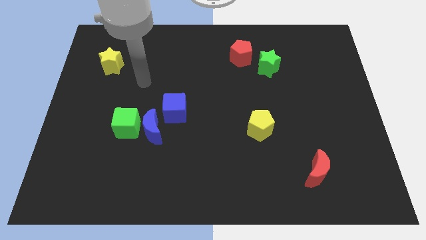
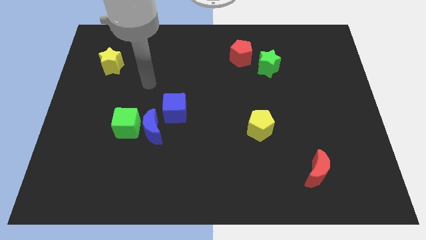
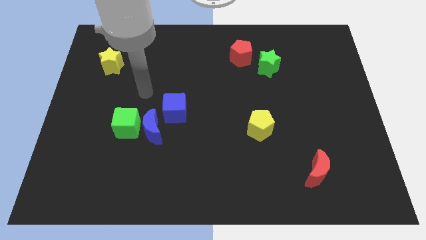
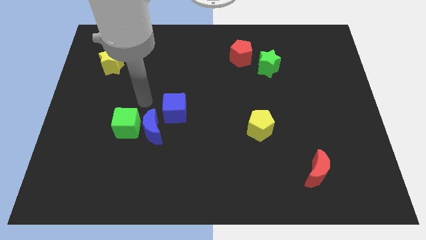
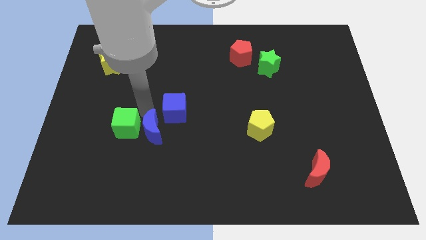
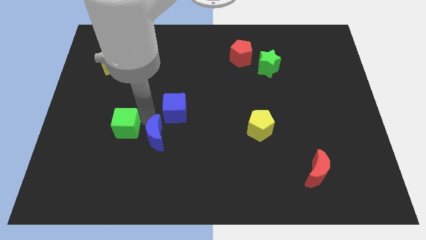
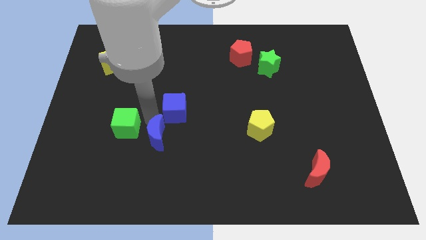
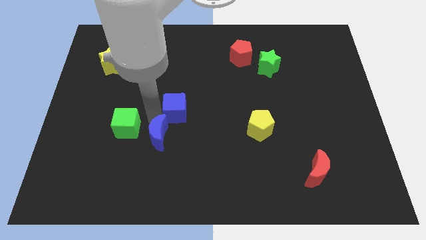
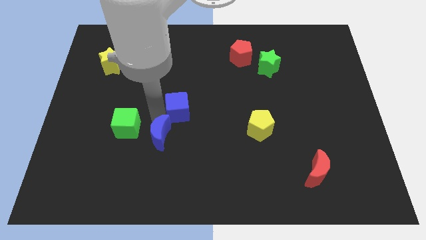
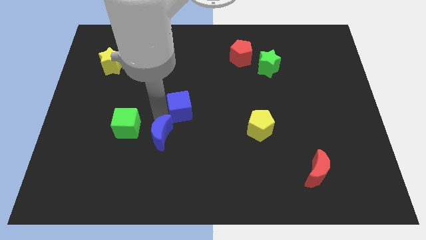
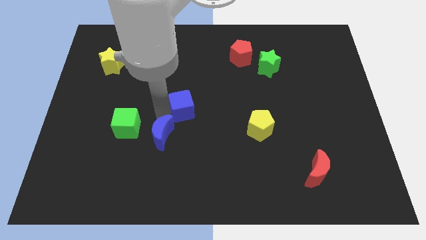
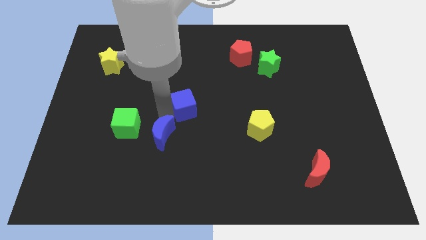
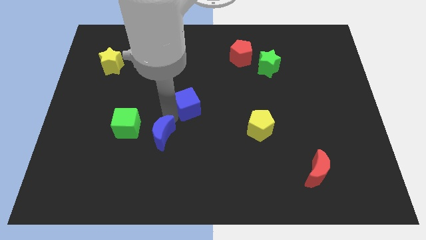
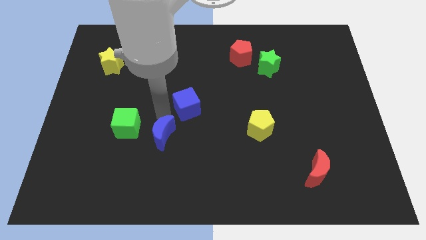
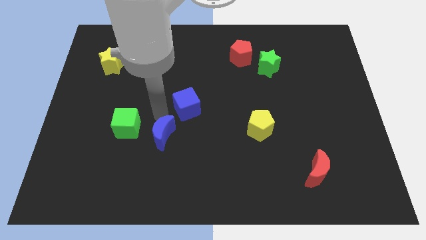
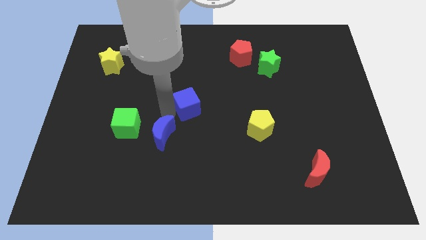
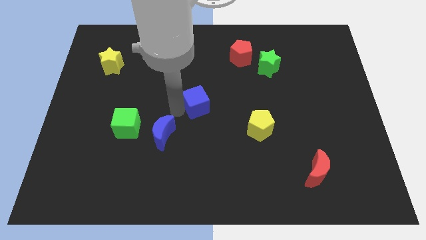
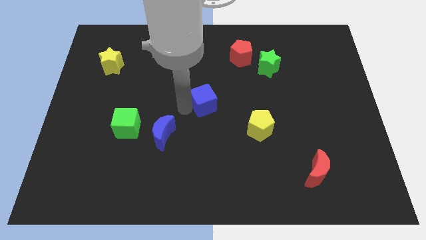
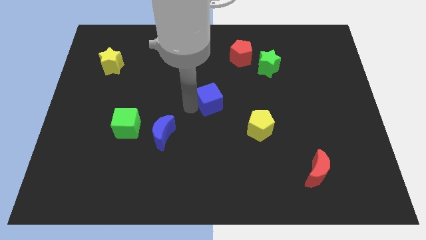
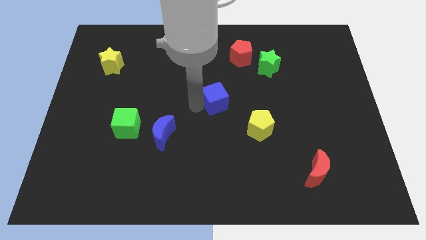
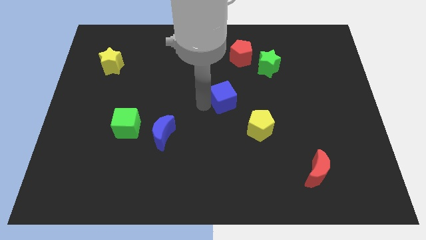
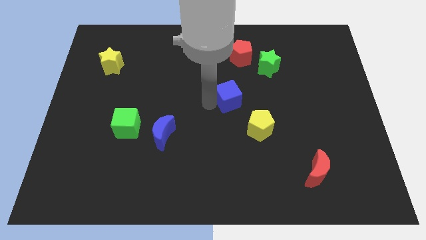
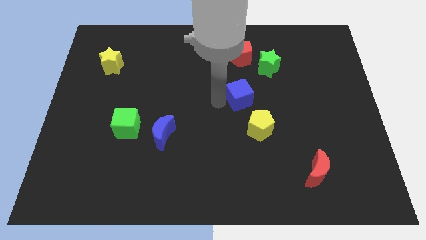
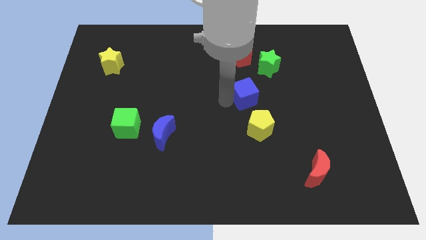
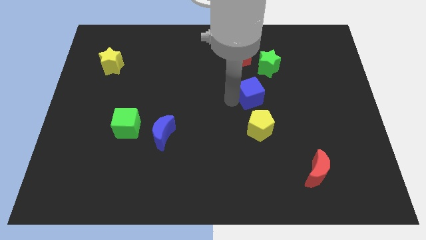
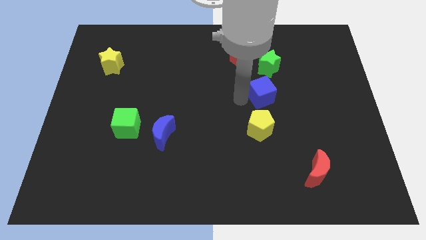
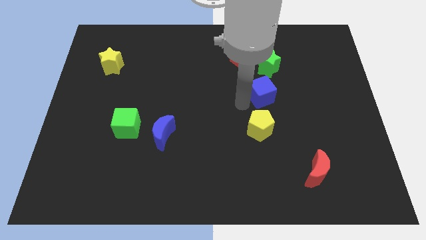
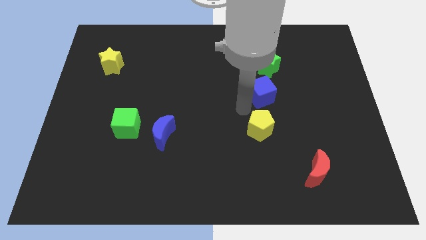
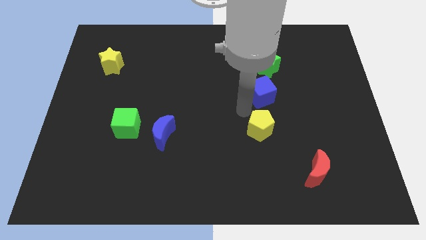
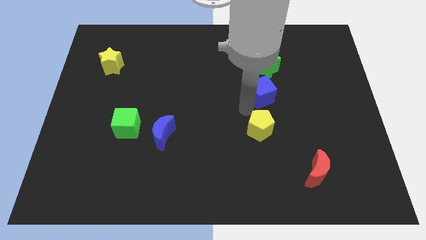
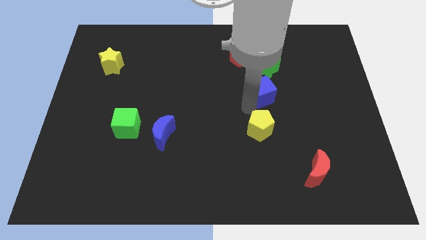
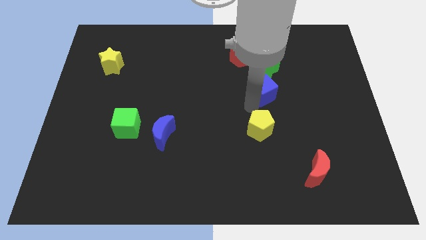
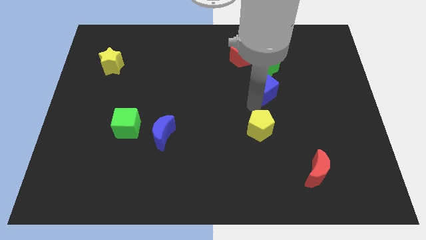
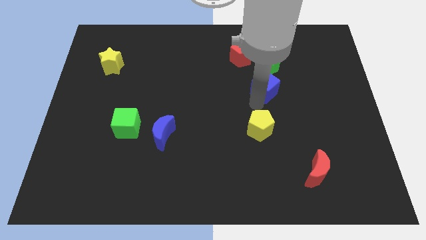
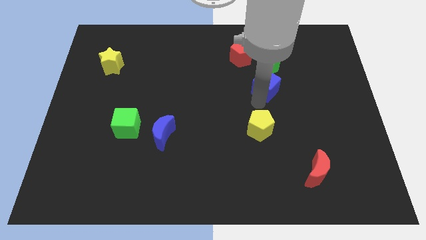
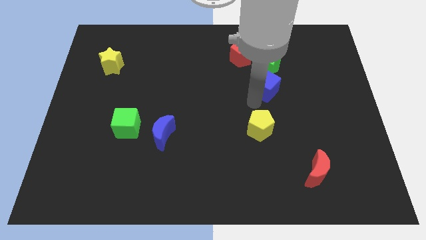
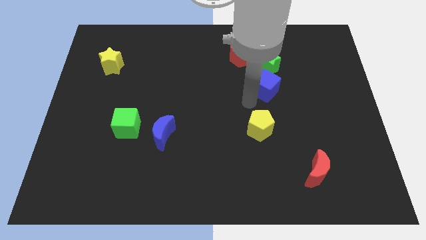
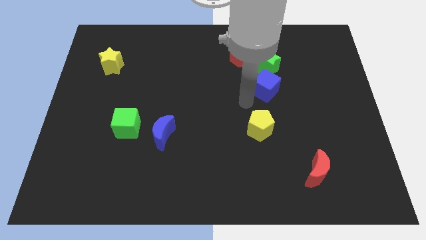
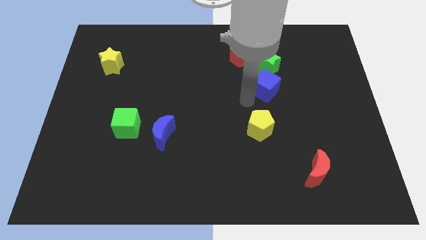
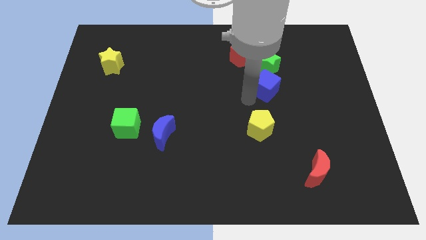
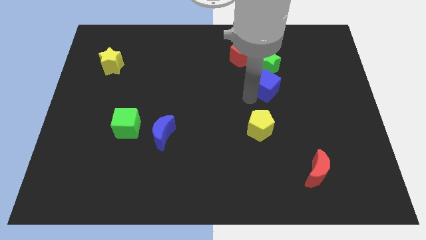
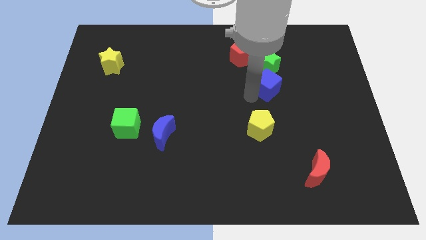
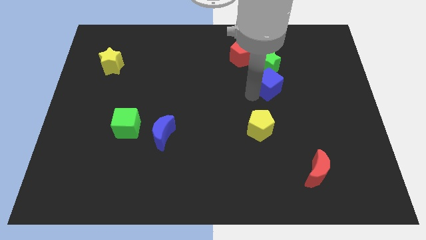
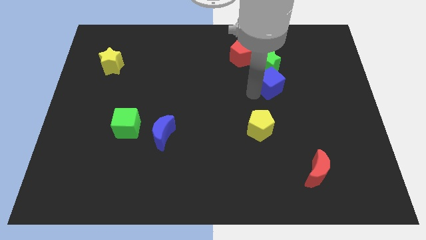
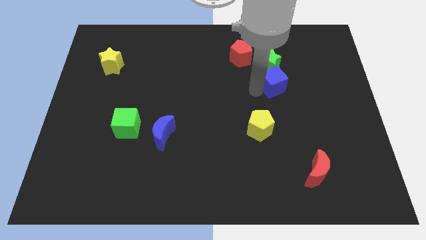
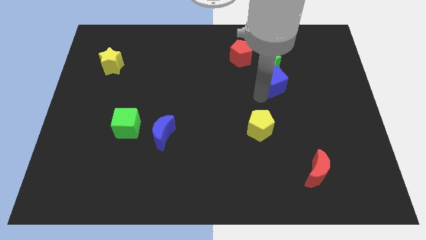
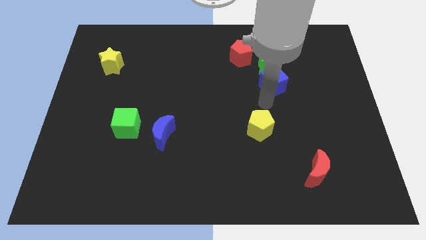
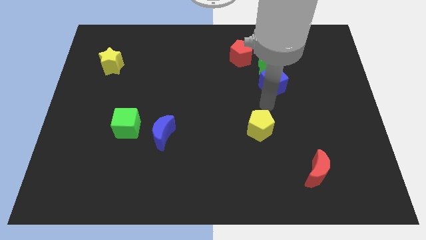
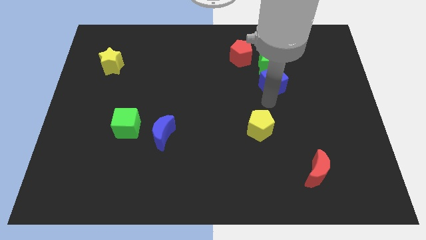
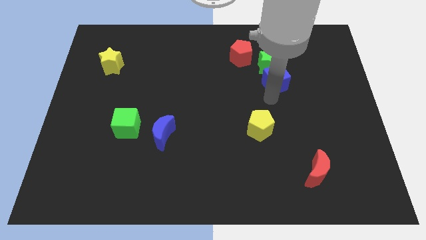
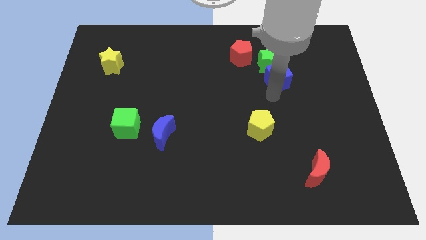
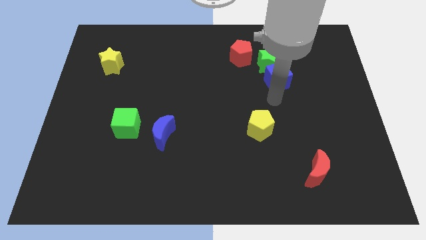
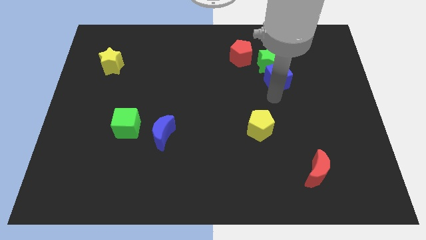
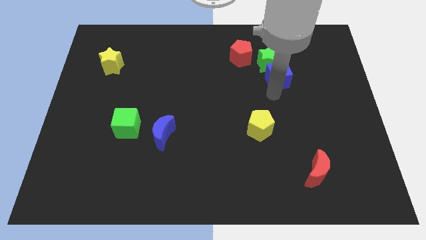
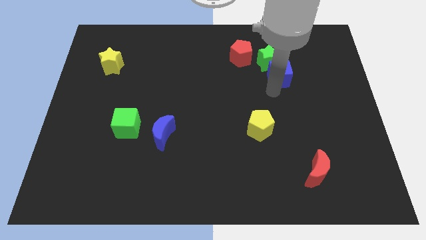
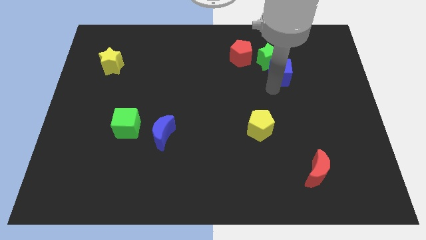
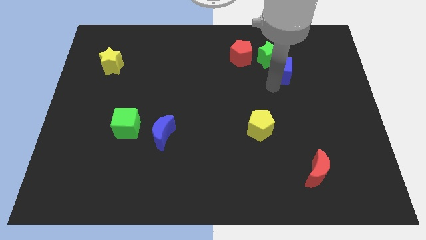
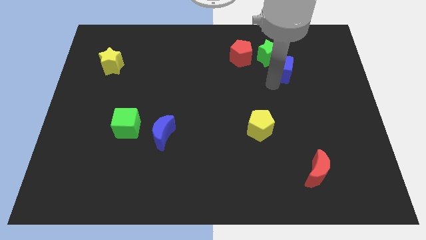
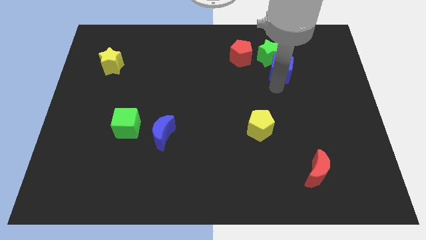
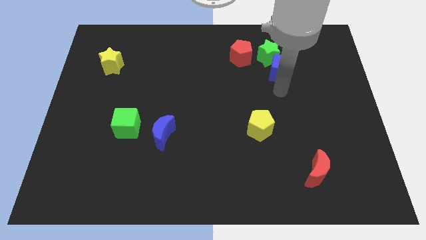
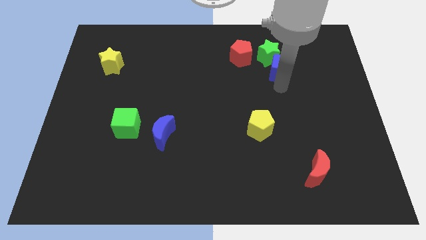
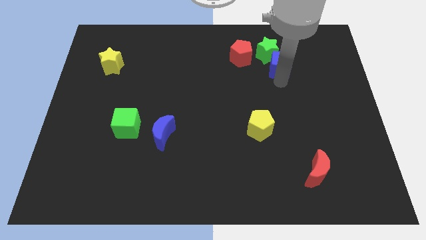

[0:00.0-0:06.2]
put the blue cube to the right side of the red pentagon
